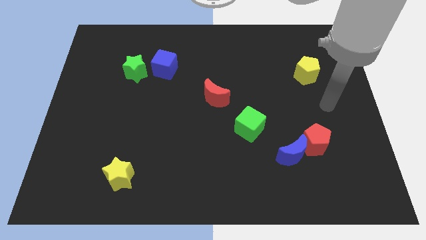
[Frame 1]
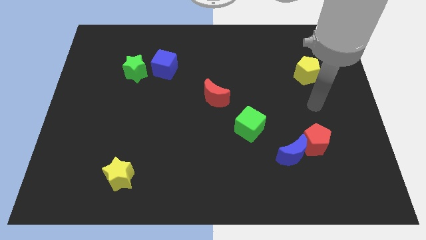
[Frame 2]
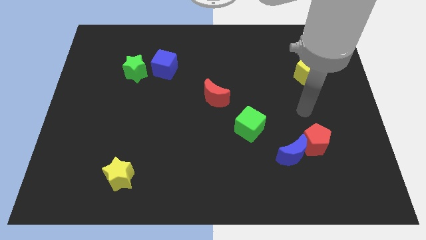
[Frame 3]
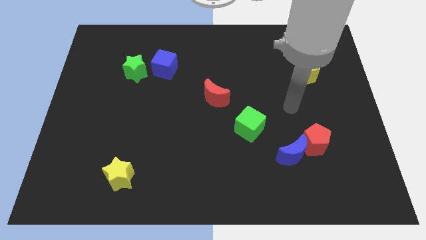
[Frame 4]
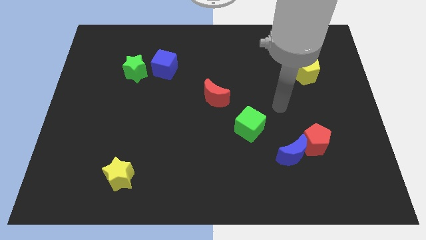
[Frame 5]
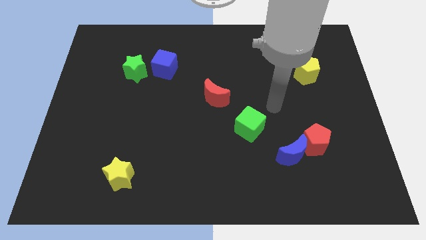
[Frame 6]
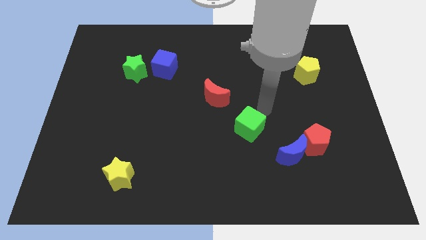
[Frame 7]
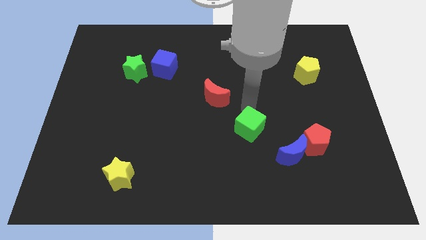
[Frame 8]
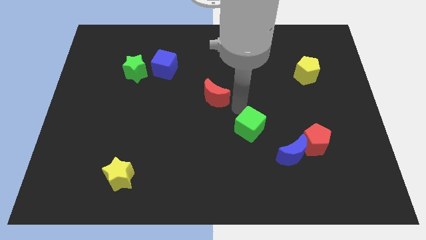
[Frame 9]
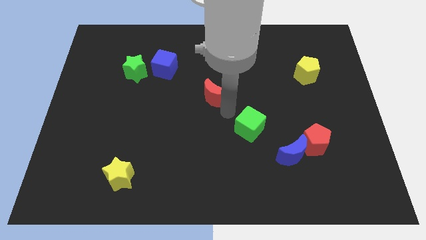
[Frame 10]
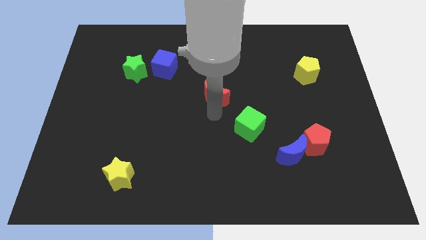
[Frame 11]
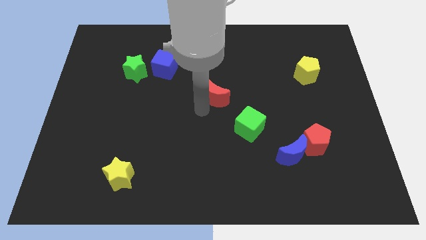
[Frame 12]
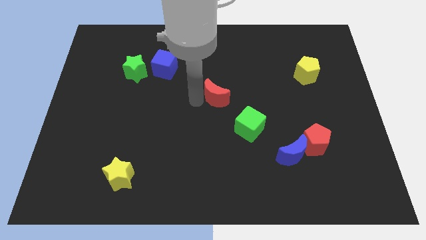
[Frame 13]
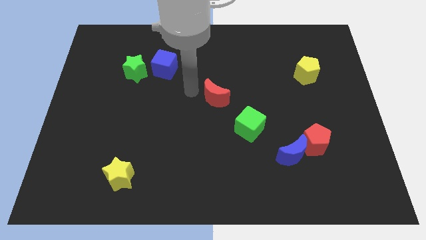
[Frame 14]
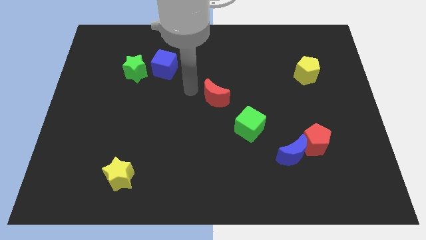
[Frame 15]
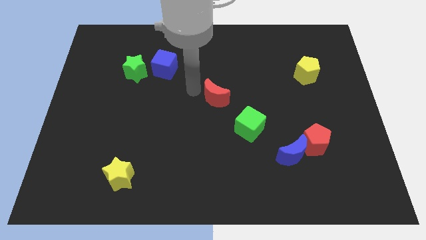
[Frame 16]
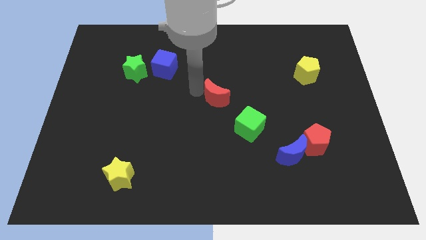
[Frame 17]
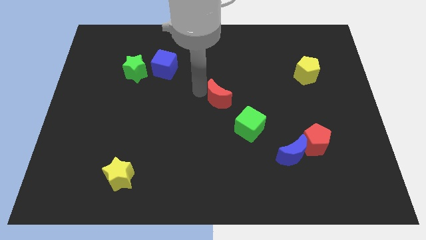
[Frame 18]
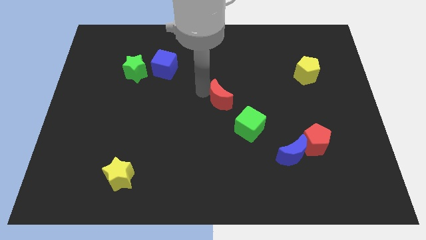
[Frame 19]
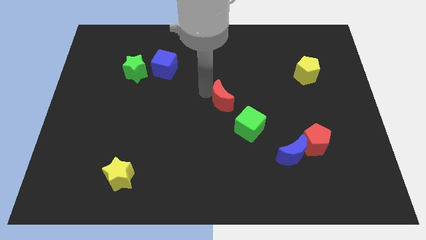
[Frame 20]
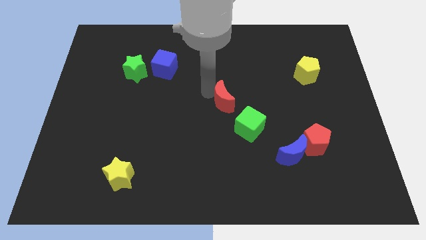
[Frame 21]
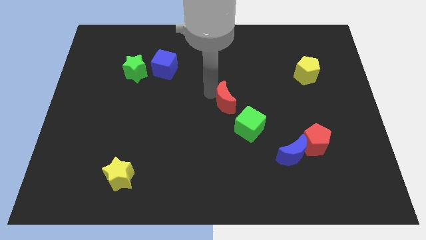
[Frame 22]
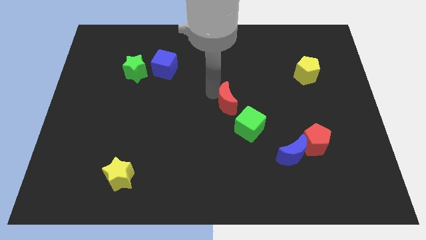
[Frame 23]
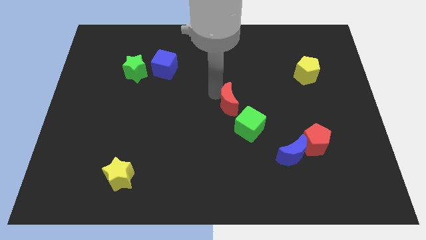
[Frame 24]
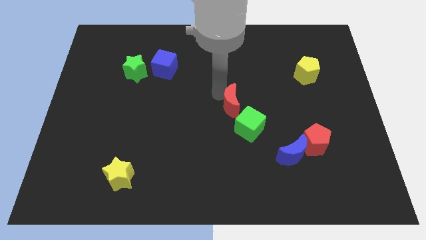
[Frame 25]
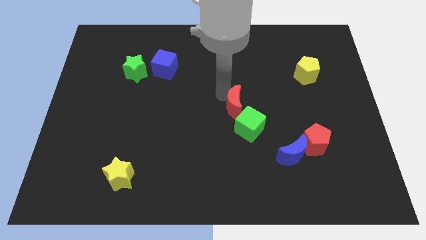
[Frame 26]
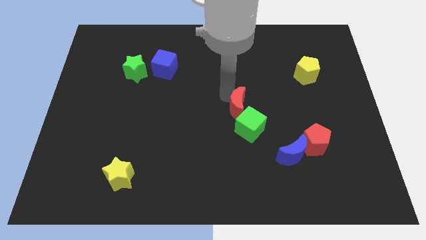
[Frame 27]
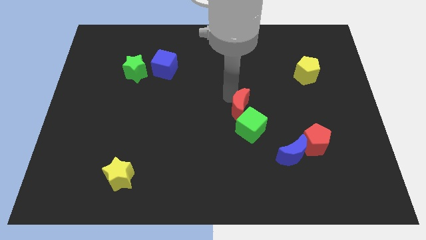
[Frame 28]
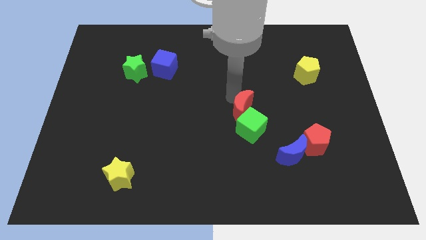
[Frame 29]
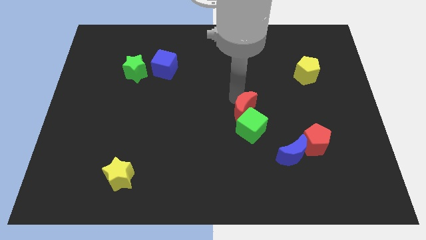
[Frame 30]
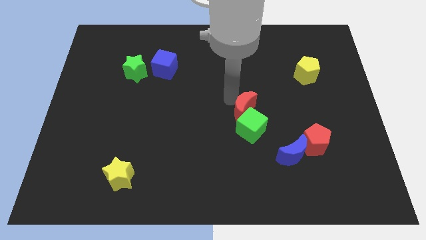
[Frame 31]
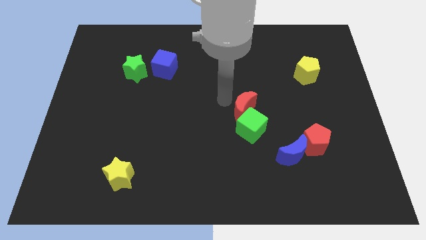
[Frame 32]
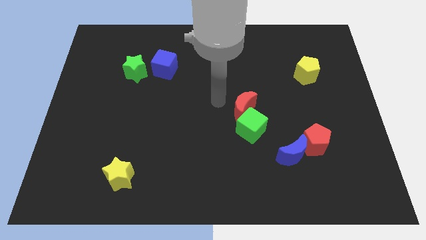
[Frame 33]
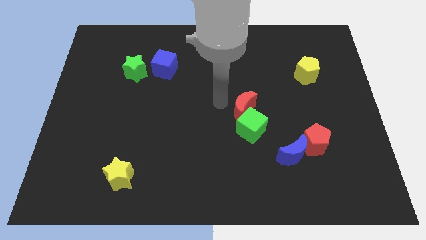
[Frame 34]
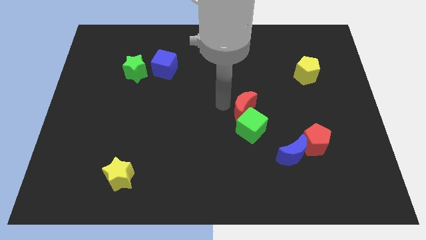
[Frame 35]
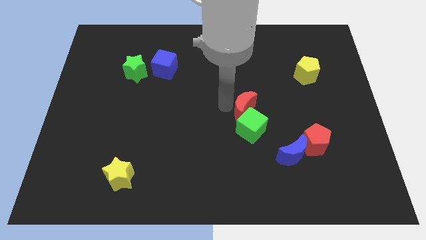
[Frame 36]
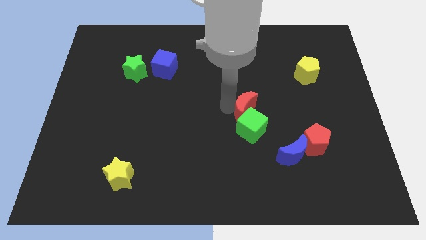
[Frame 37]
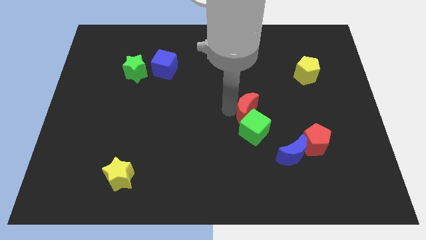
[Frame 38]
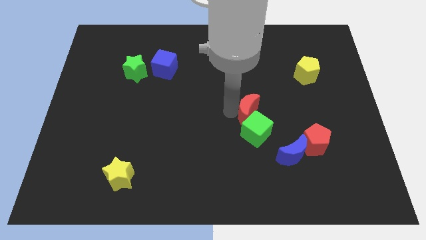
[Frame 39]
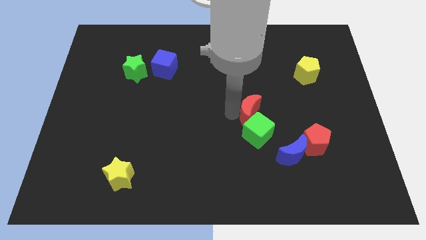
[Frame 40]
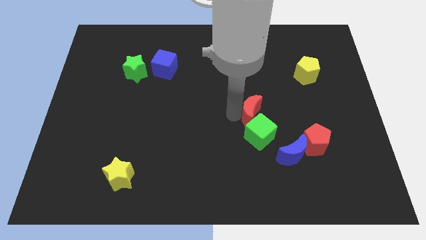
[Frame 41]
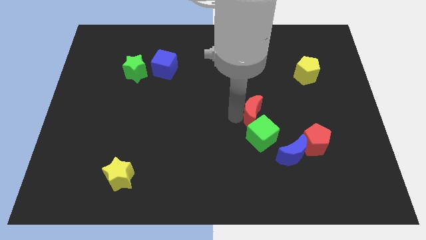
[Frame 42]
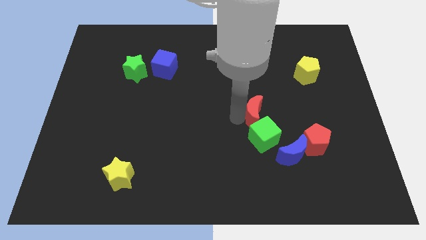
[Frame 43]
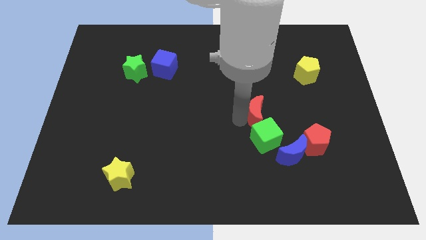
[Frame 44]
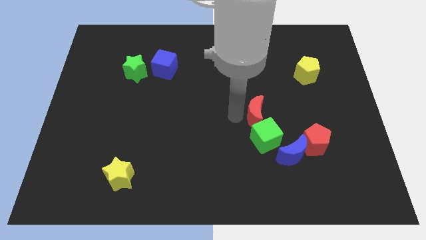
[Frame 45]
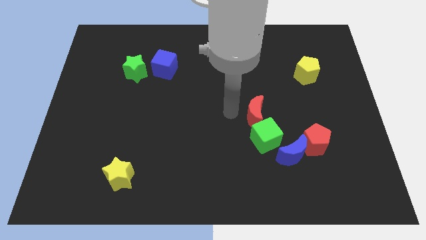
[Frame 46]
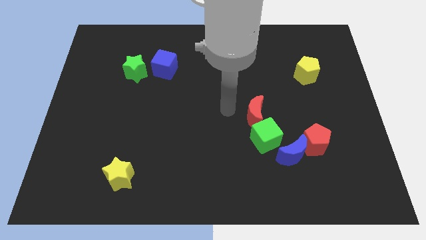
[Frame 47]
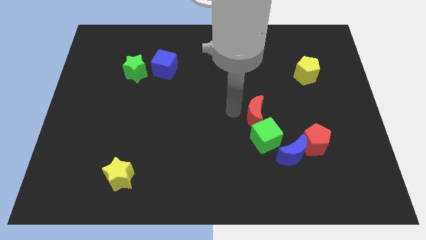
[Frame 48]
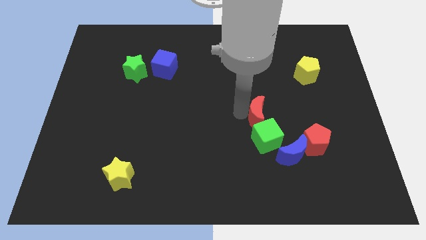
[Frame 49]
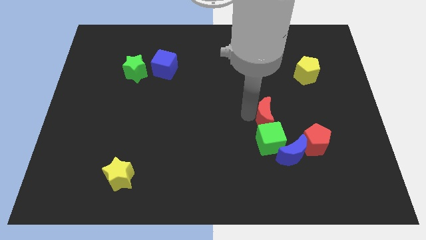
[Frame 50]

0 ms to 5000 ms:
move the red moon to the top left of the red pentagon

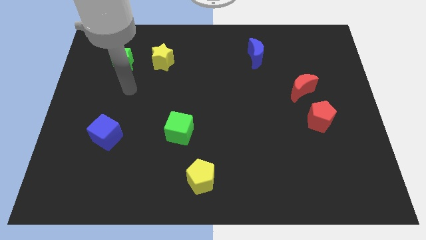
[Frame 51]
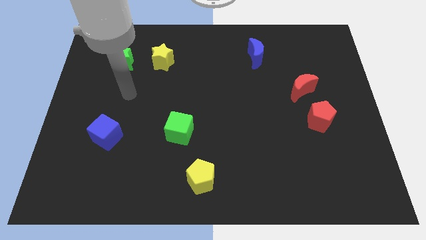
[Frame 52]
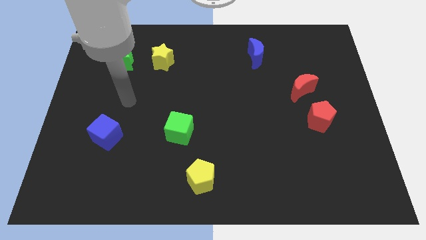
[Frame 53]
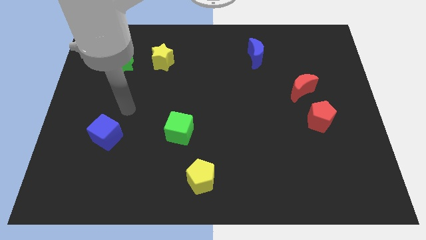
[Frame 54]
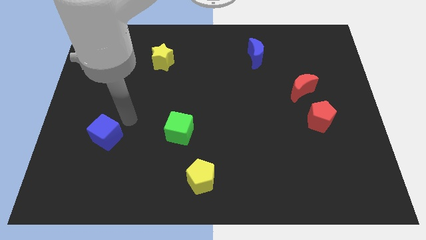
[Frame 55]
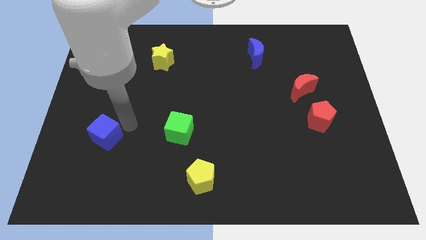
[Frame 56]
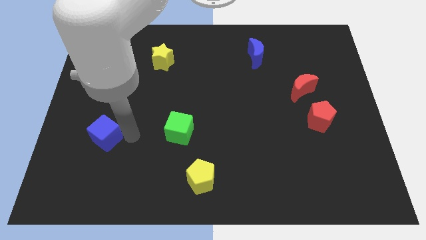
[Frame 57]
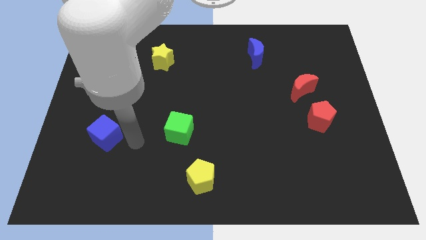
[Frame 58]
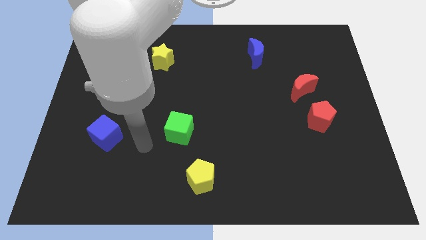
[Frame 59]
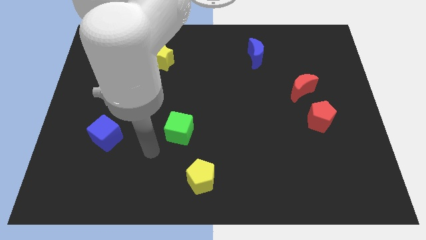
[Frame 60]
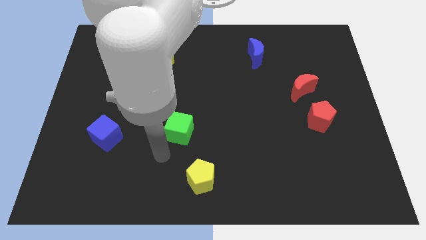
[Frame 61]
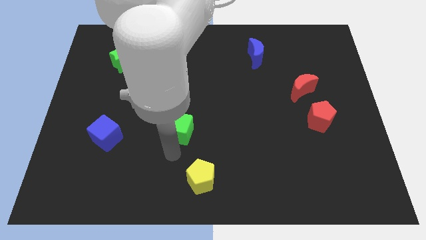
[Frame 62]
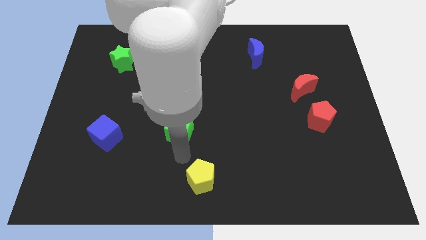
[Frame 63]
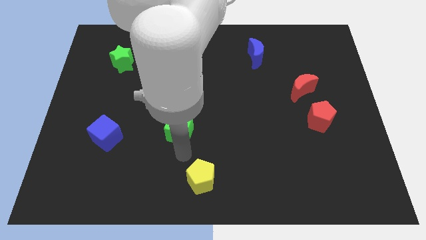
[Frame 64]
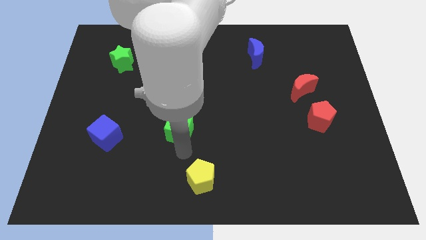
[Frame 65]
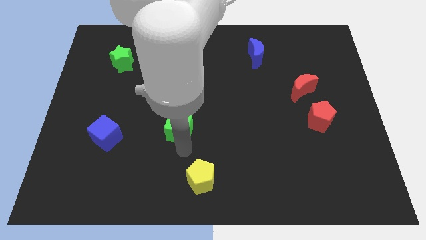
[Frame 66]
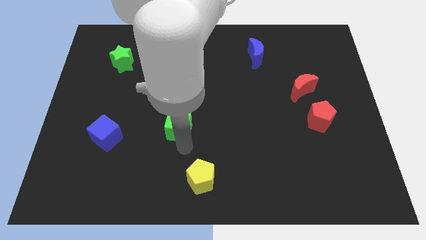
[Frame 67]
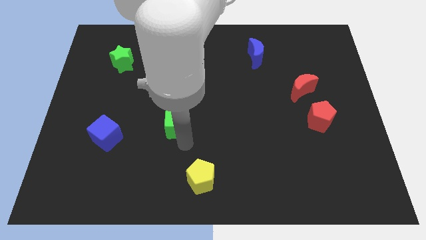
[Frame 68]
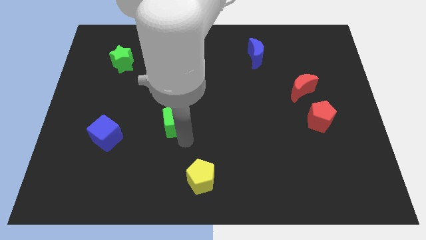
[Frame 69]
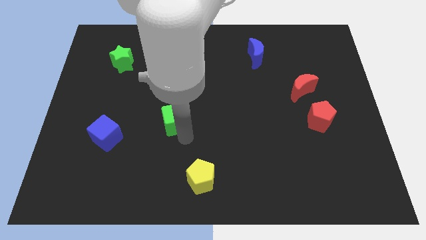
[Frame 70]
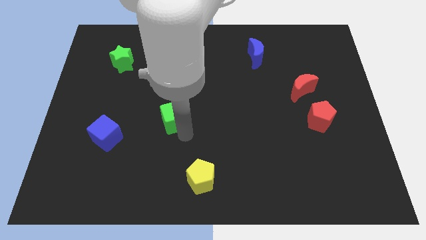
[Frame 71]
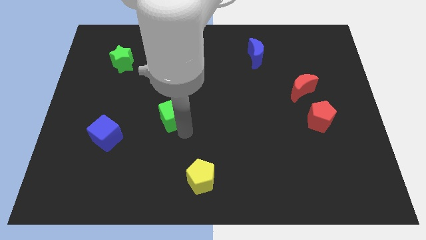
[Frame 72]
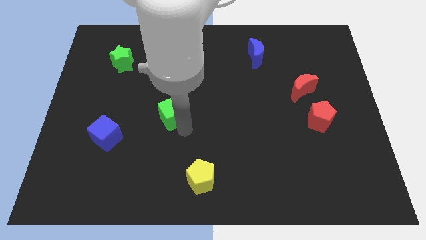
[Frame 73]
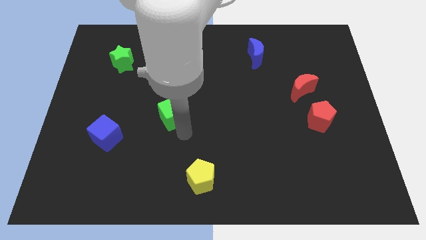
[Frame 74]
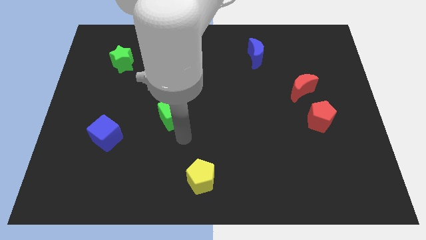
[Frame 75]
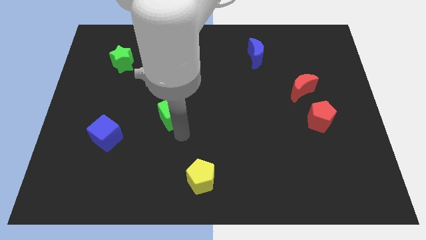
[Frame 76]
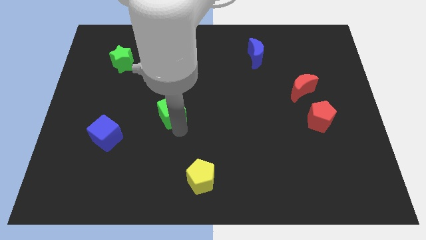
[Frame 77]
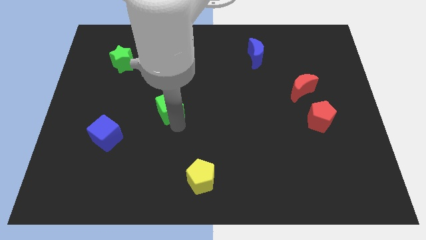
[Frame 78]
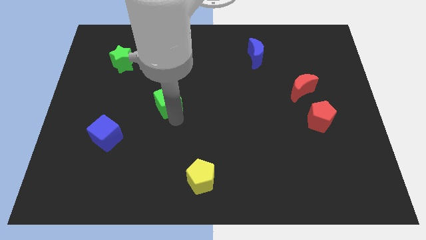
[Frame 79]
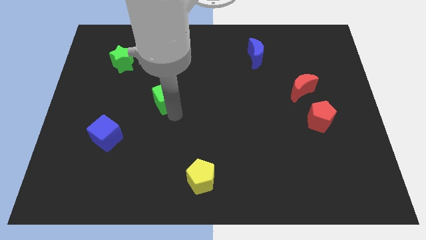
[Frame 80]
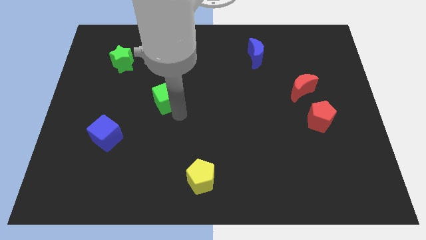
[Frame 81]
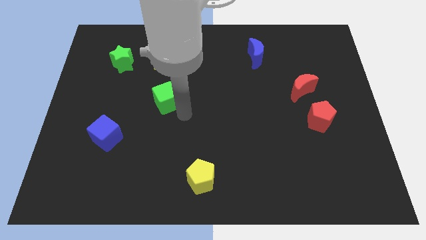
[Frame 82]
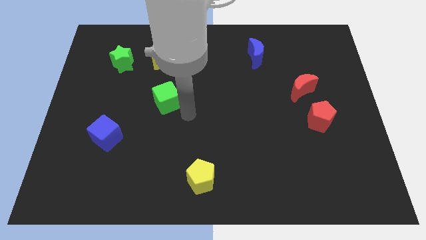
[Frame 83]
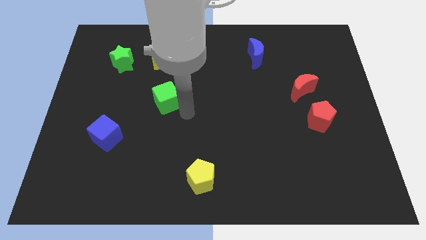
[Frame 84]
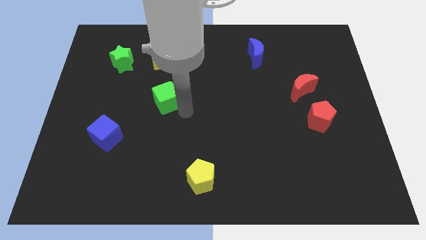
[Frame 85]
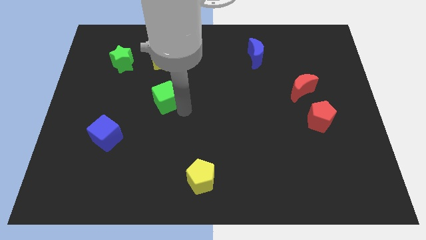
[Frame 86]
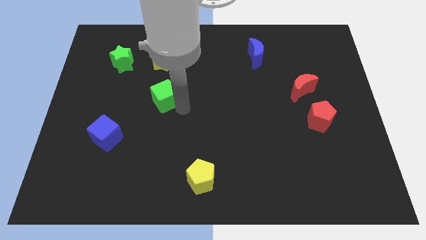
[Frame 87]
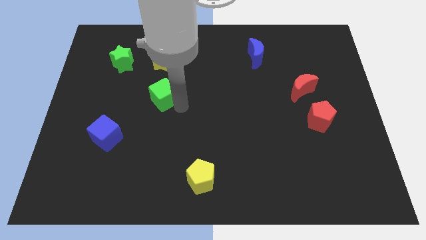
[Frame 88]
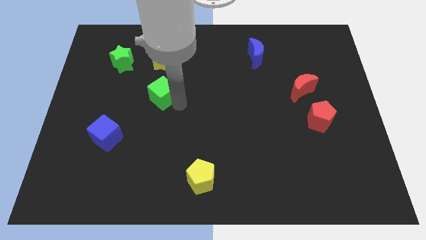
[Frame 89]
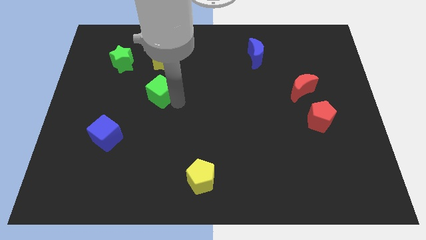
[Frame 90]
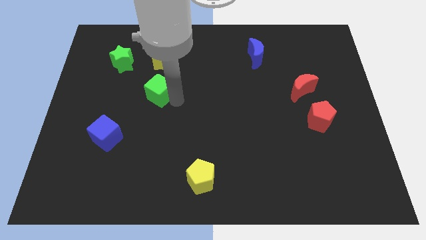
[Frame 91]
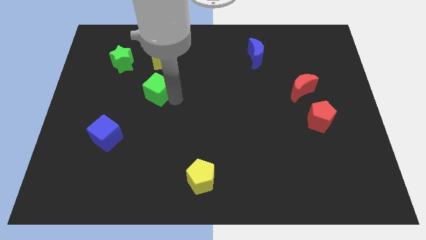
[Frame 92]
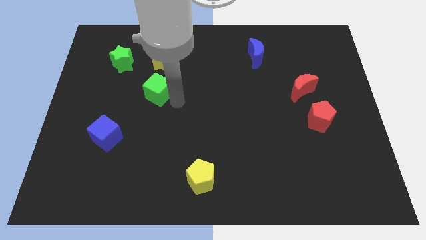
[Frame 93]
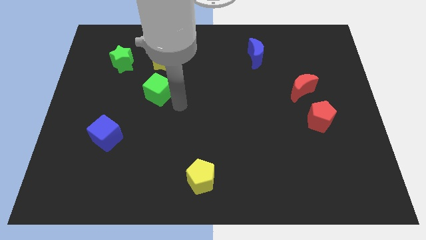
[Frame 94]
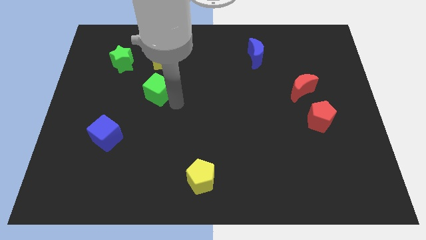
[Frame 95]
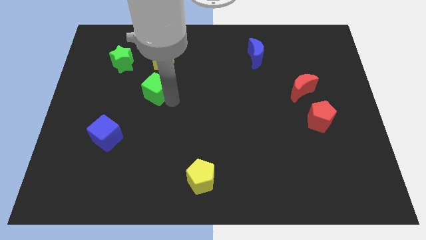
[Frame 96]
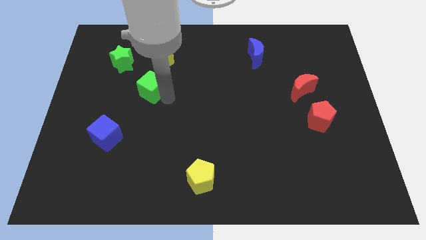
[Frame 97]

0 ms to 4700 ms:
move the green cube to the bottom right side of the green star
